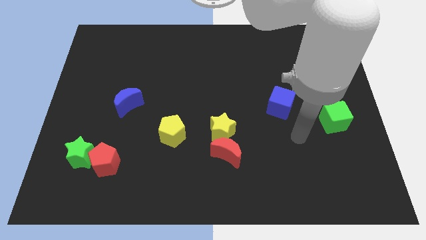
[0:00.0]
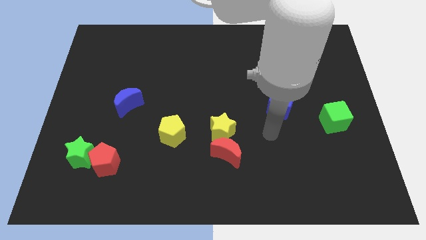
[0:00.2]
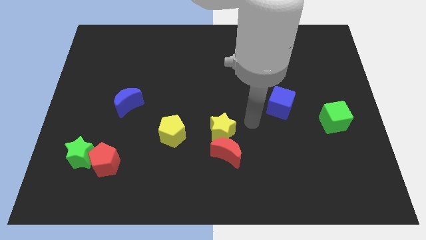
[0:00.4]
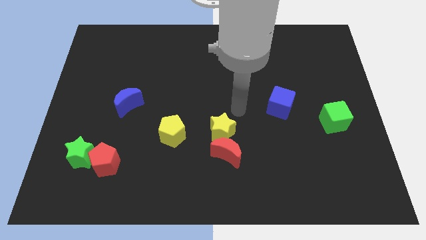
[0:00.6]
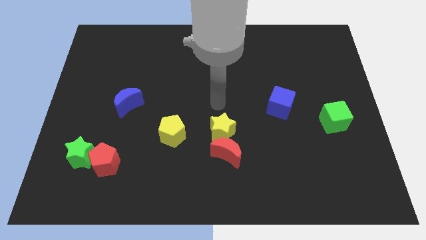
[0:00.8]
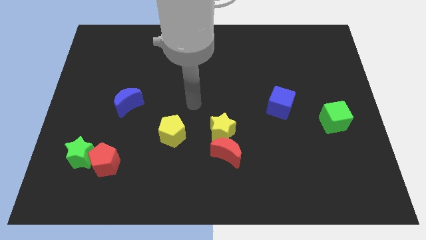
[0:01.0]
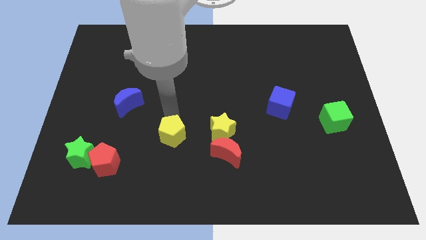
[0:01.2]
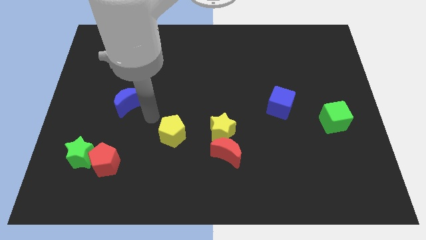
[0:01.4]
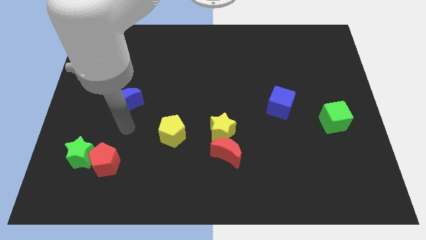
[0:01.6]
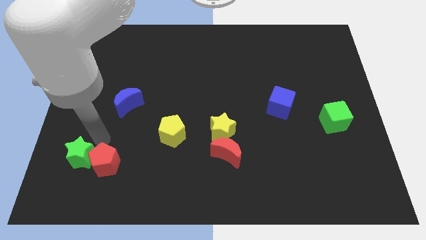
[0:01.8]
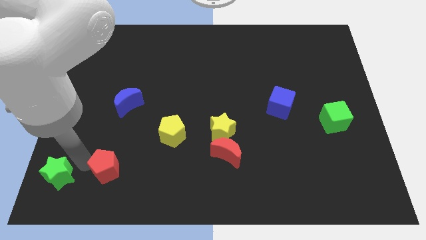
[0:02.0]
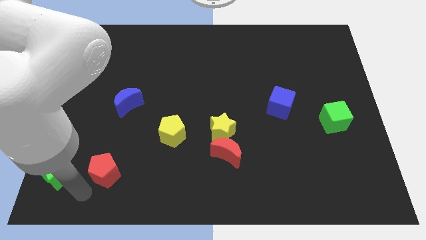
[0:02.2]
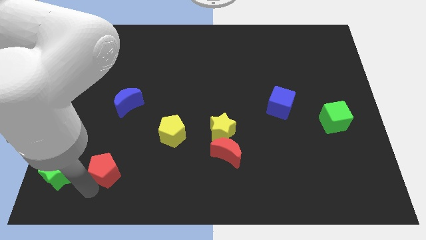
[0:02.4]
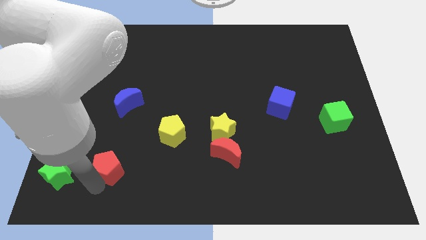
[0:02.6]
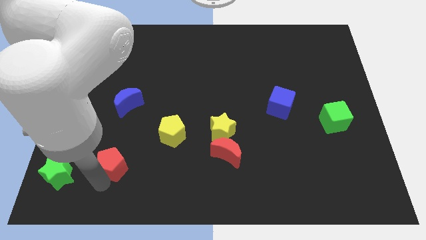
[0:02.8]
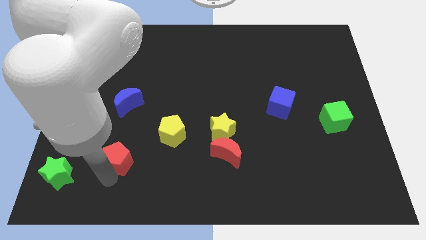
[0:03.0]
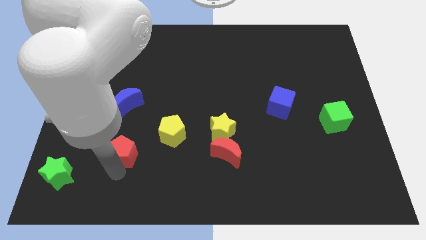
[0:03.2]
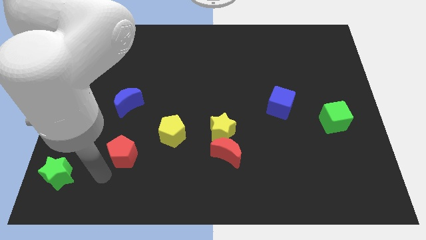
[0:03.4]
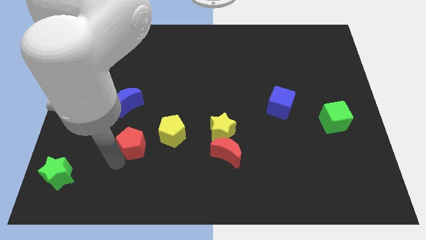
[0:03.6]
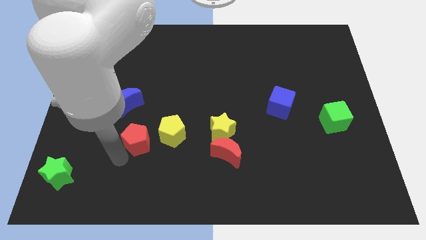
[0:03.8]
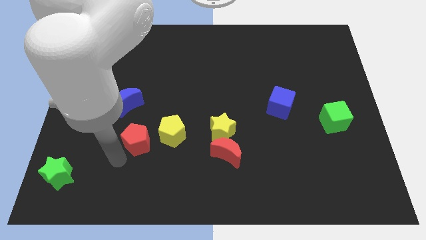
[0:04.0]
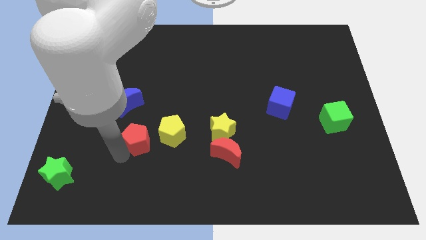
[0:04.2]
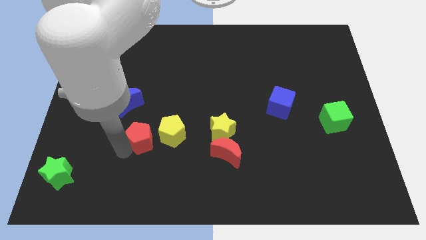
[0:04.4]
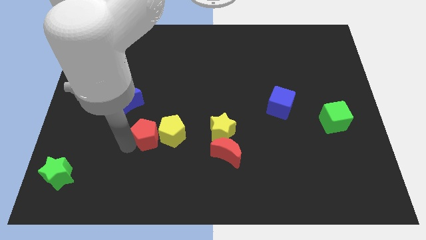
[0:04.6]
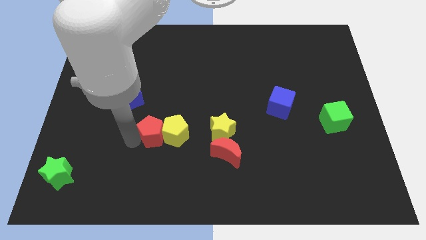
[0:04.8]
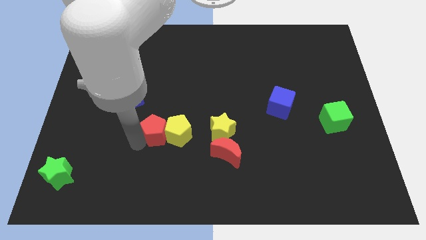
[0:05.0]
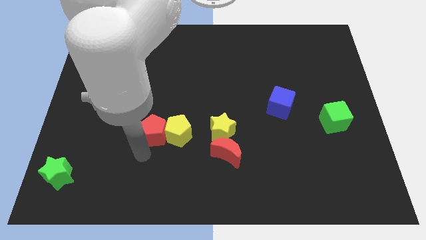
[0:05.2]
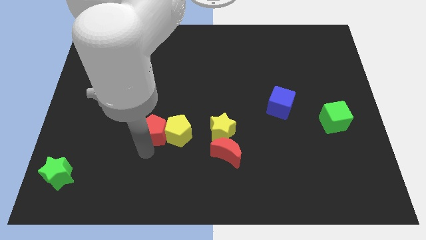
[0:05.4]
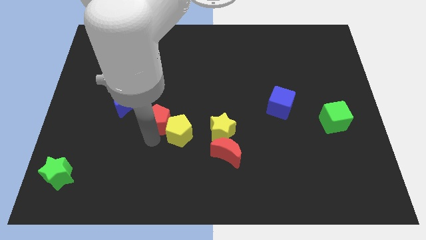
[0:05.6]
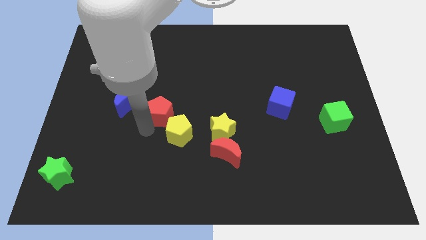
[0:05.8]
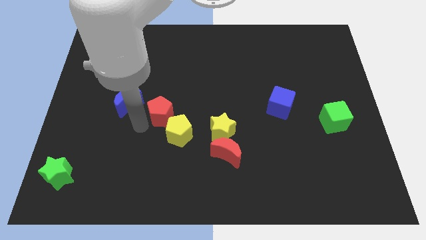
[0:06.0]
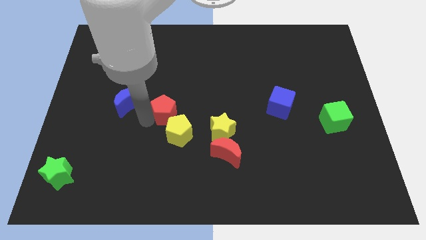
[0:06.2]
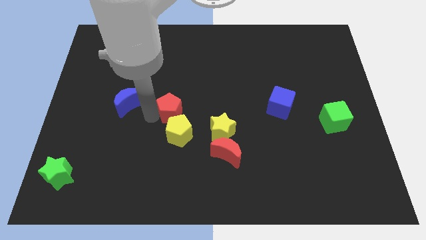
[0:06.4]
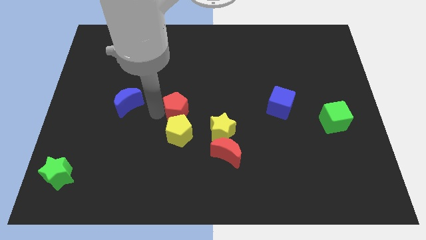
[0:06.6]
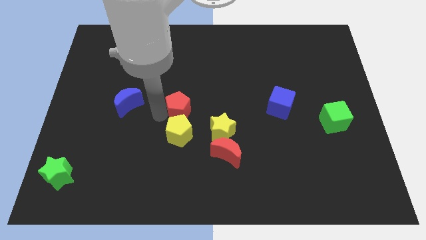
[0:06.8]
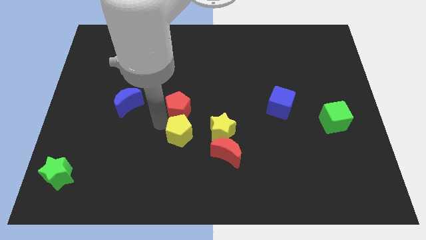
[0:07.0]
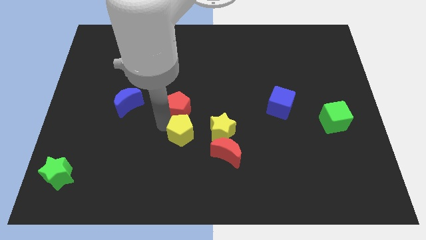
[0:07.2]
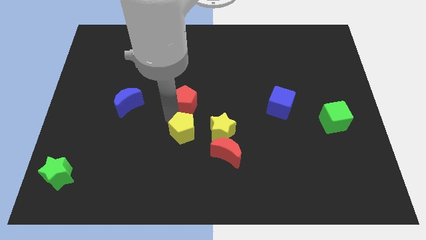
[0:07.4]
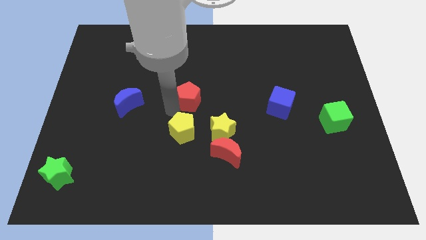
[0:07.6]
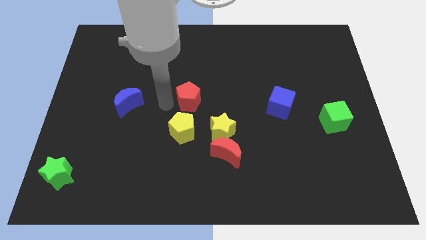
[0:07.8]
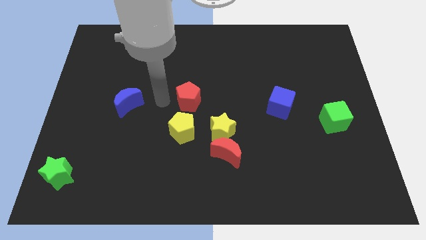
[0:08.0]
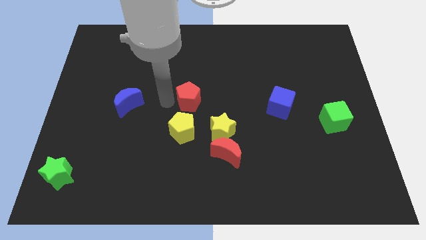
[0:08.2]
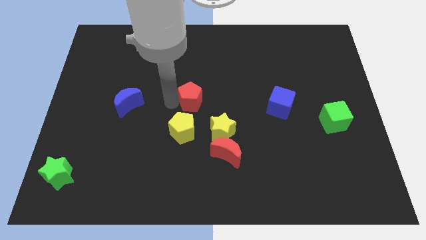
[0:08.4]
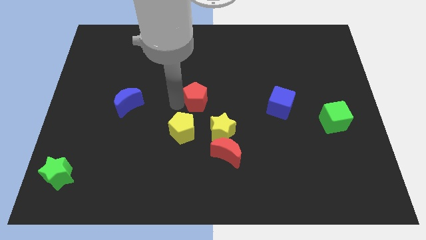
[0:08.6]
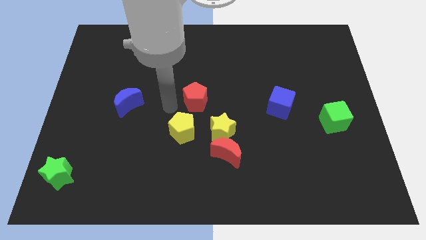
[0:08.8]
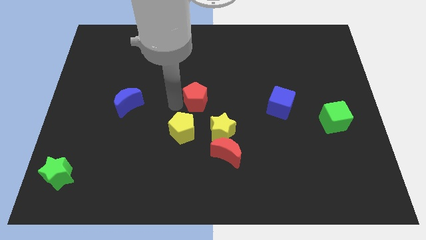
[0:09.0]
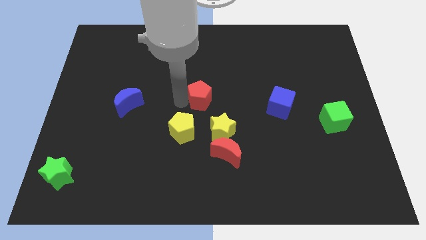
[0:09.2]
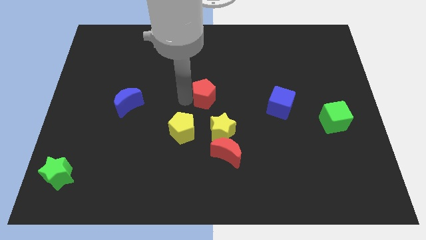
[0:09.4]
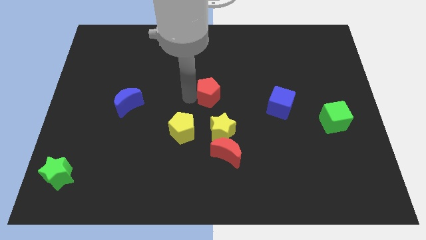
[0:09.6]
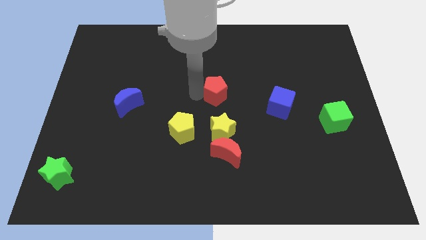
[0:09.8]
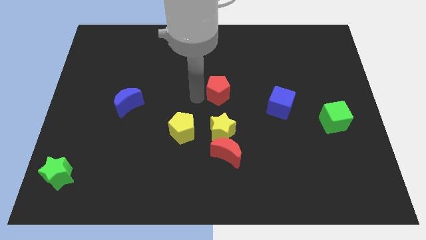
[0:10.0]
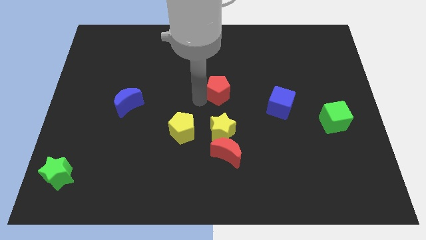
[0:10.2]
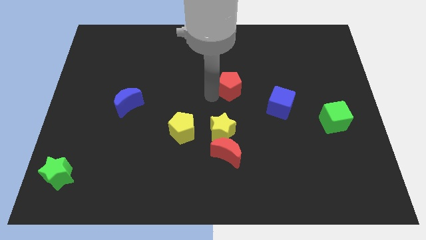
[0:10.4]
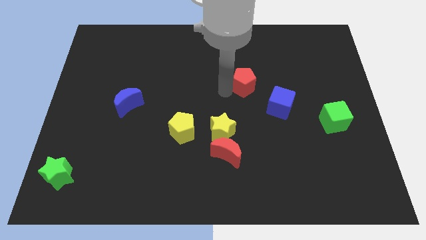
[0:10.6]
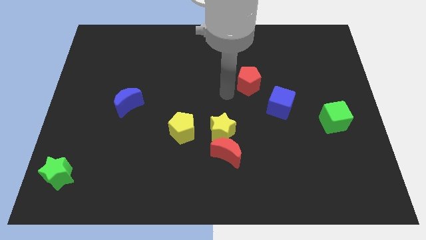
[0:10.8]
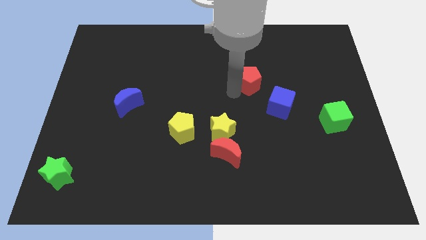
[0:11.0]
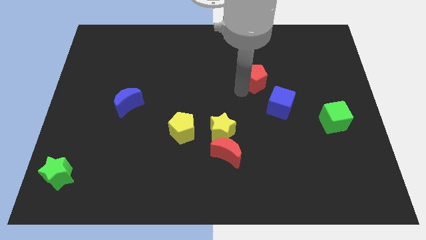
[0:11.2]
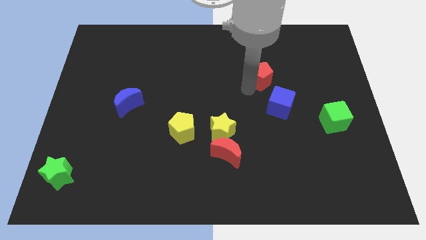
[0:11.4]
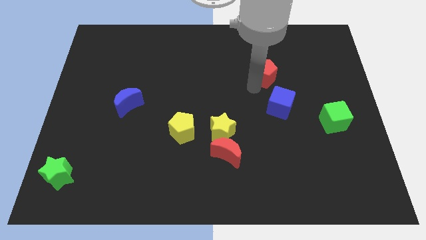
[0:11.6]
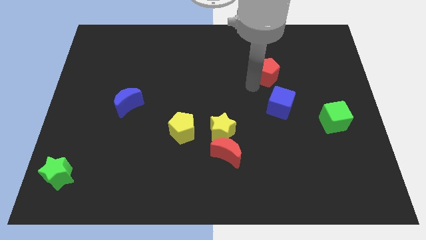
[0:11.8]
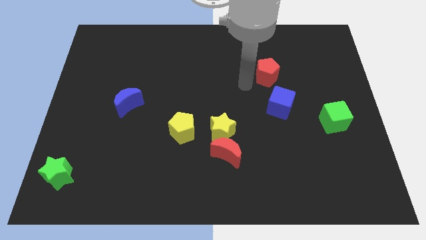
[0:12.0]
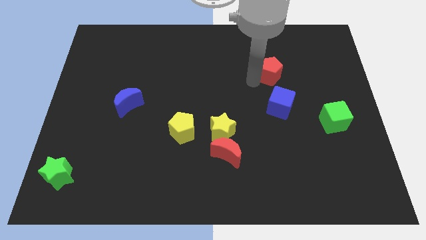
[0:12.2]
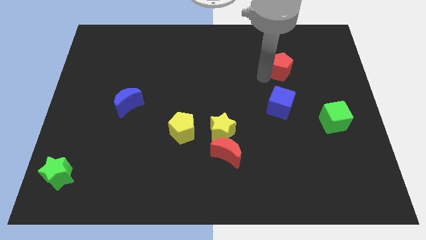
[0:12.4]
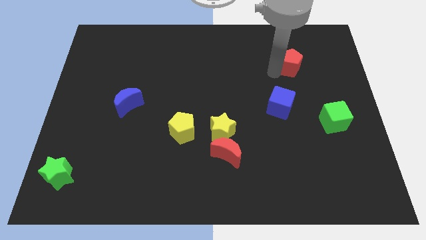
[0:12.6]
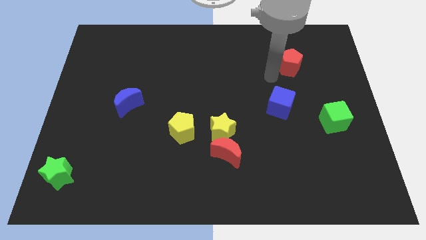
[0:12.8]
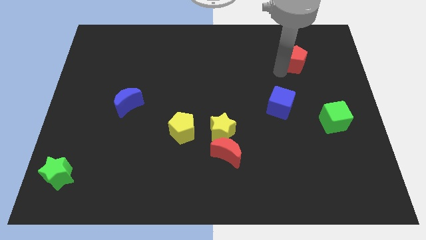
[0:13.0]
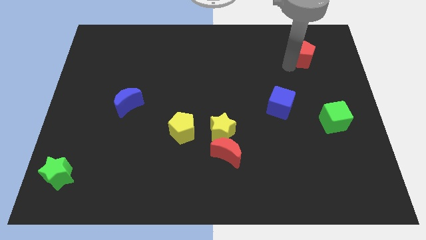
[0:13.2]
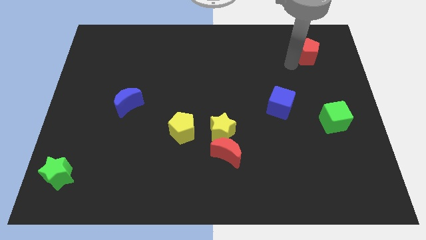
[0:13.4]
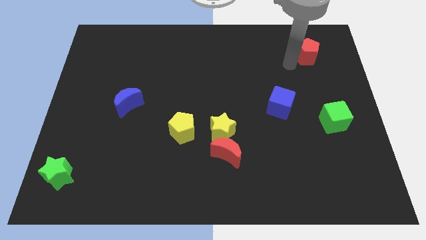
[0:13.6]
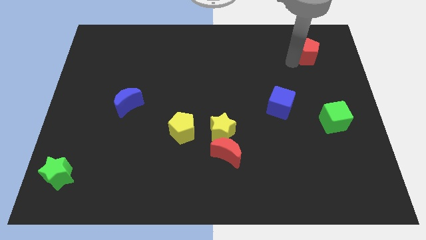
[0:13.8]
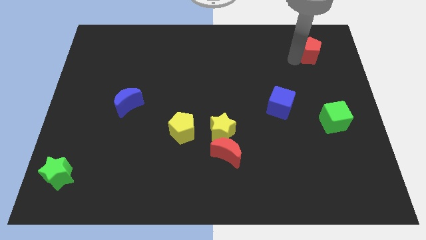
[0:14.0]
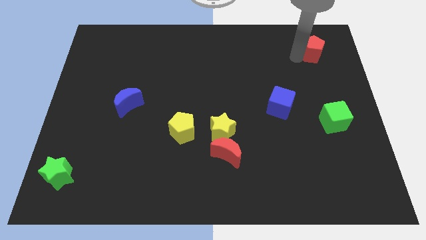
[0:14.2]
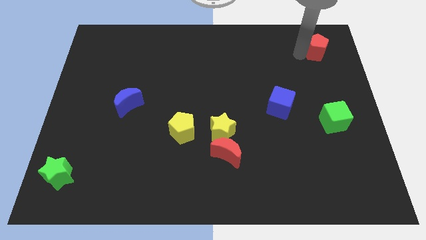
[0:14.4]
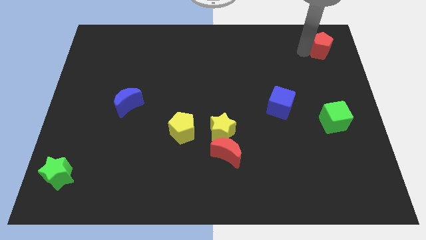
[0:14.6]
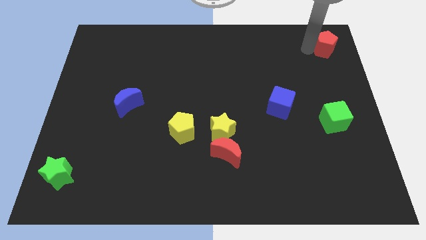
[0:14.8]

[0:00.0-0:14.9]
slide the red pentagon to the top right corner

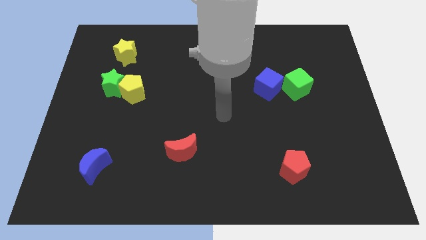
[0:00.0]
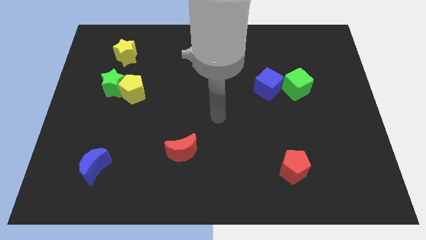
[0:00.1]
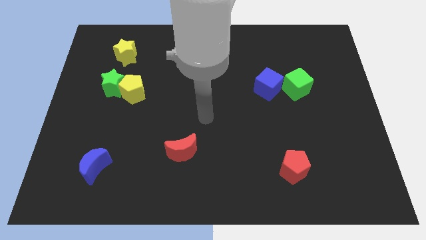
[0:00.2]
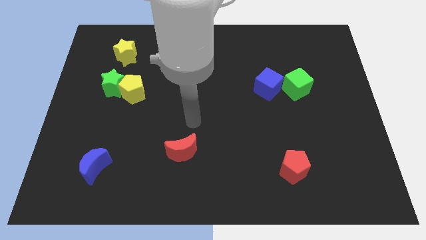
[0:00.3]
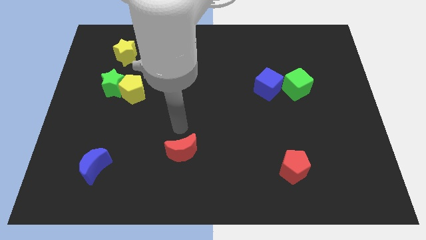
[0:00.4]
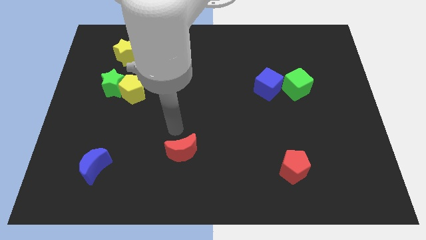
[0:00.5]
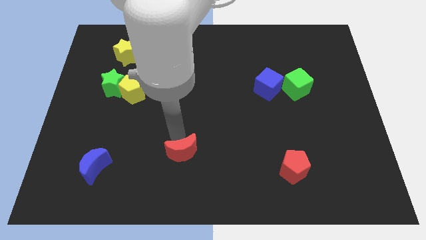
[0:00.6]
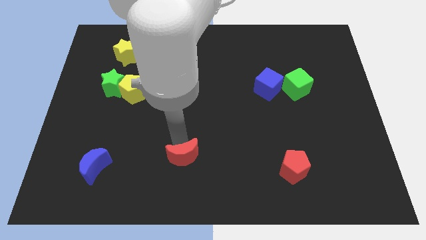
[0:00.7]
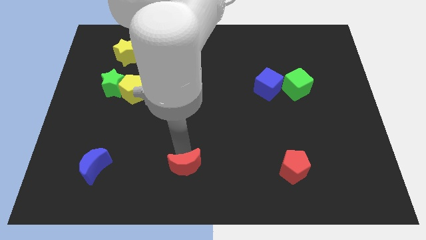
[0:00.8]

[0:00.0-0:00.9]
put the red moon to the bottom side
